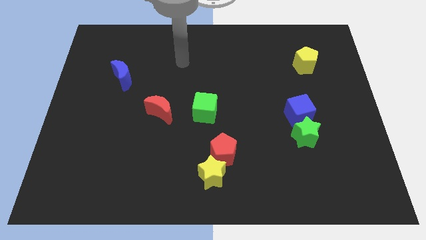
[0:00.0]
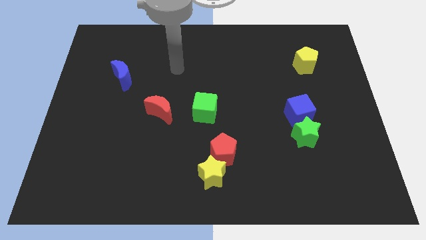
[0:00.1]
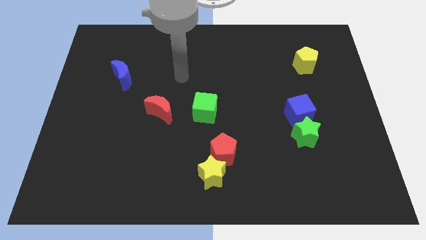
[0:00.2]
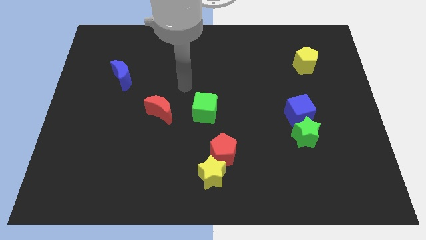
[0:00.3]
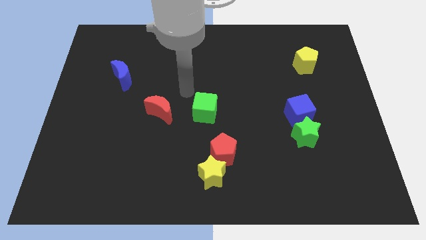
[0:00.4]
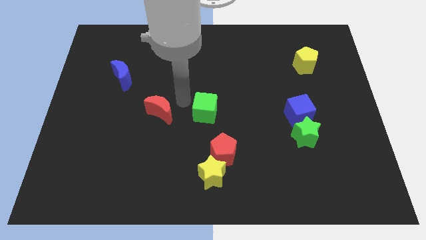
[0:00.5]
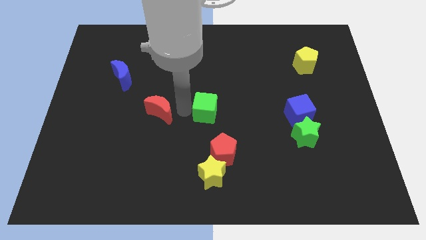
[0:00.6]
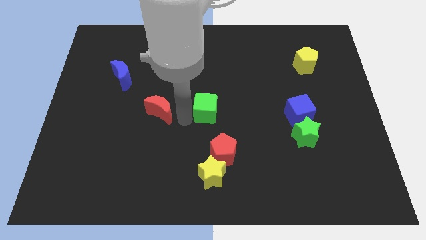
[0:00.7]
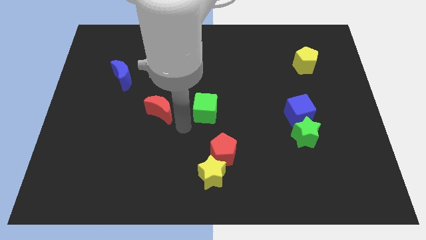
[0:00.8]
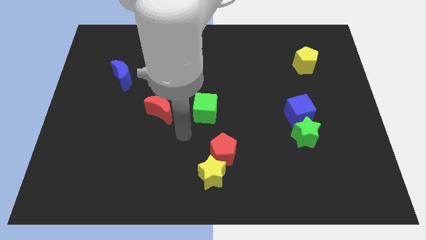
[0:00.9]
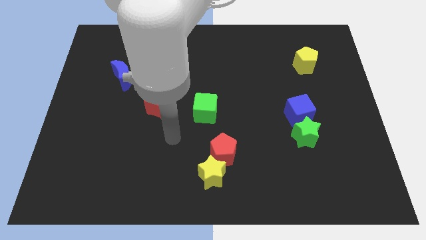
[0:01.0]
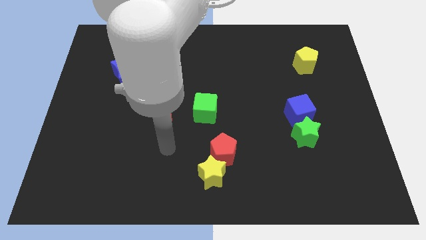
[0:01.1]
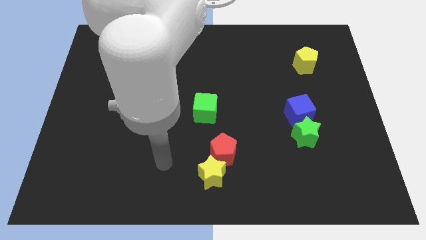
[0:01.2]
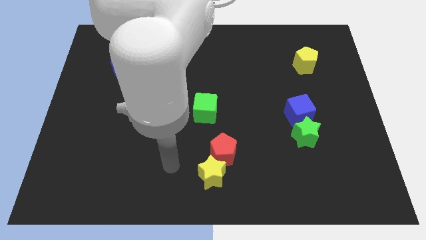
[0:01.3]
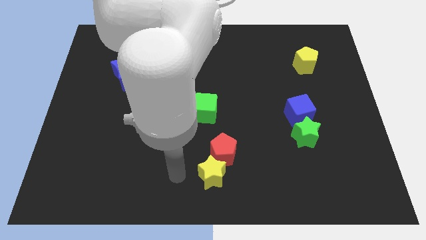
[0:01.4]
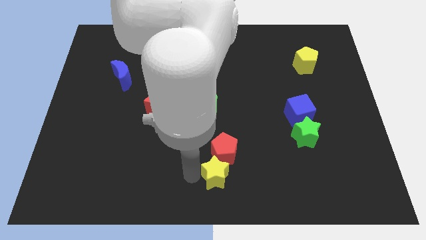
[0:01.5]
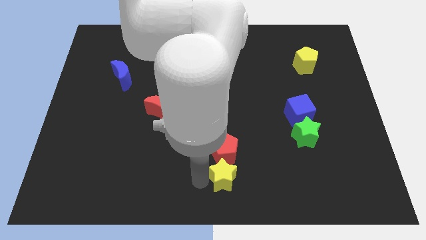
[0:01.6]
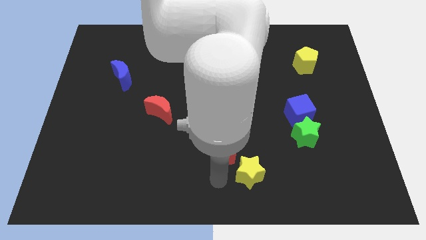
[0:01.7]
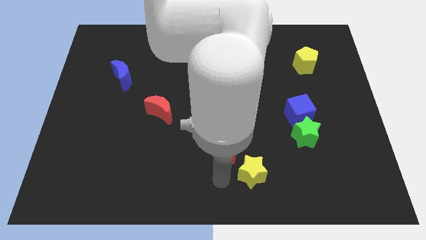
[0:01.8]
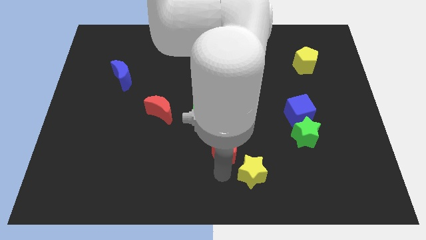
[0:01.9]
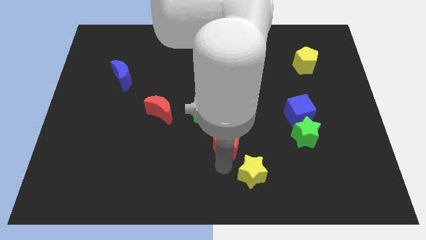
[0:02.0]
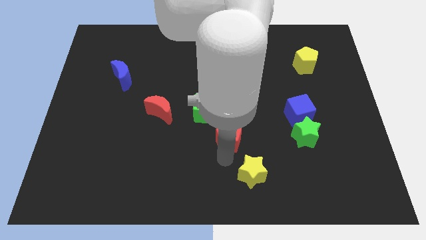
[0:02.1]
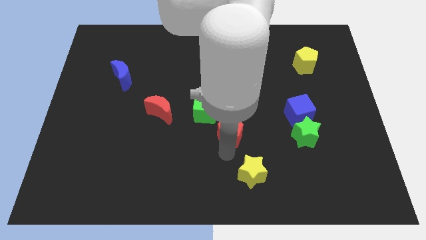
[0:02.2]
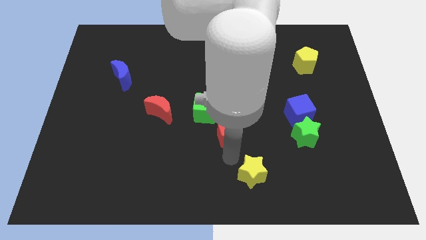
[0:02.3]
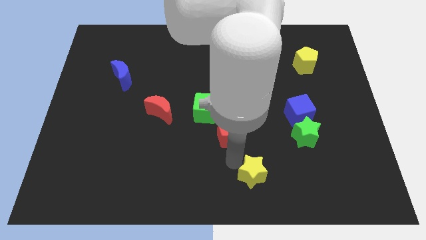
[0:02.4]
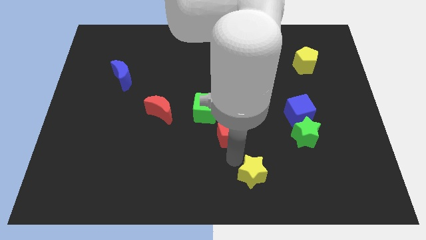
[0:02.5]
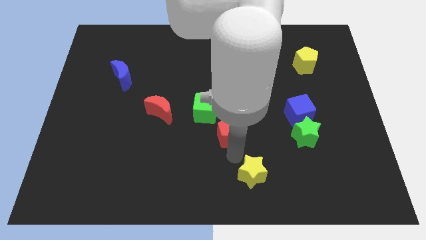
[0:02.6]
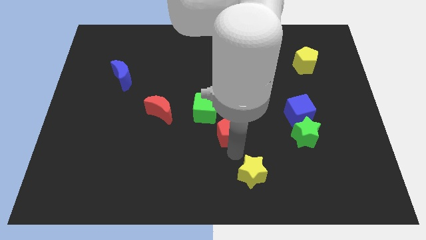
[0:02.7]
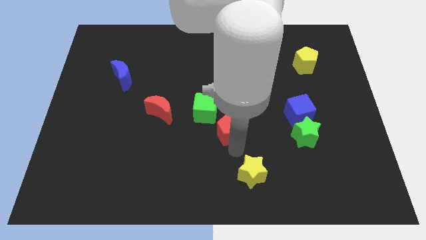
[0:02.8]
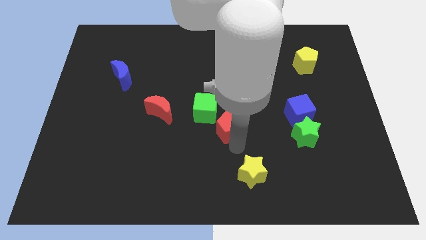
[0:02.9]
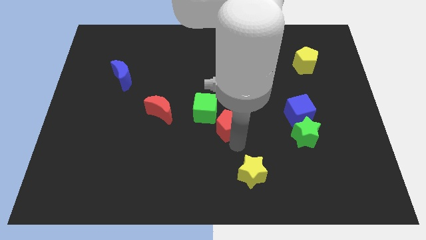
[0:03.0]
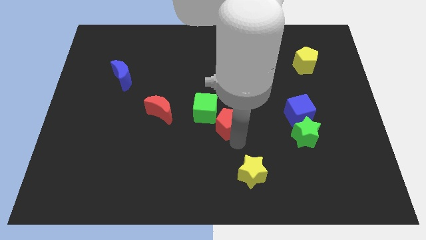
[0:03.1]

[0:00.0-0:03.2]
slightly slide the red pentagon up

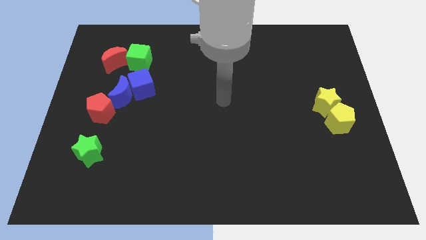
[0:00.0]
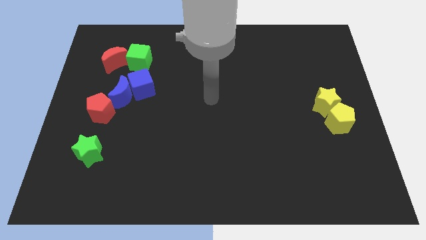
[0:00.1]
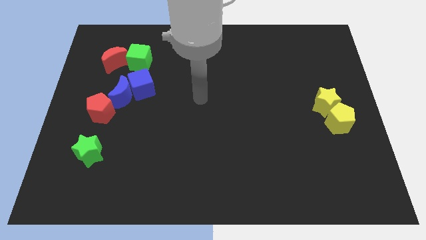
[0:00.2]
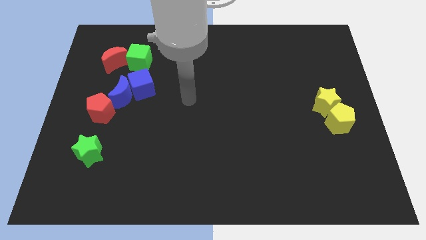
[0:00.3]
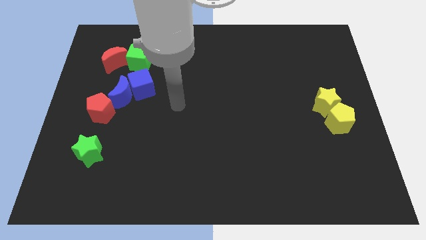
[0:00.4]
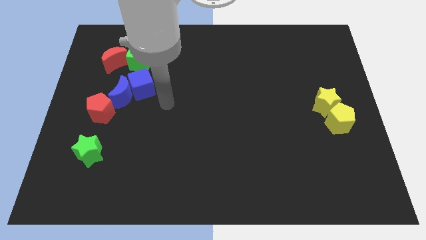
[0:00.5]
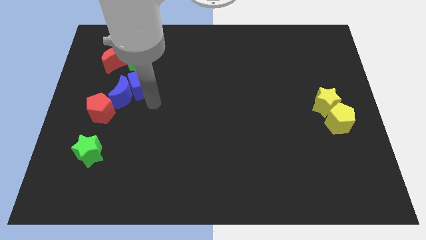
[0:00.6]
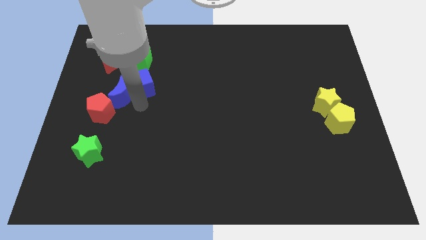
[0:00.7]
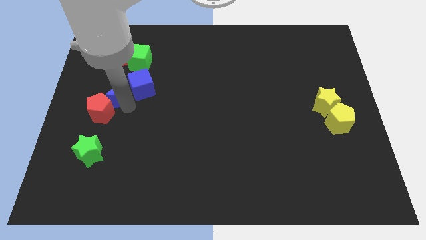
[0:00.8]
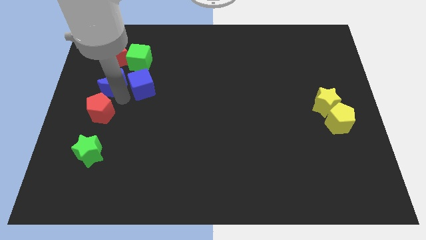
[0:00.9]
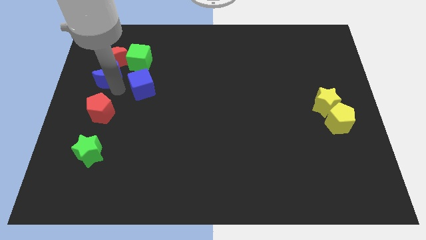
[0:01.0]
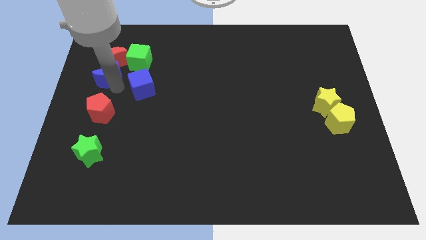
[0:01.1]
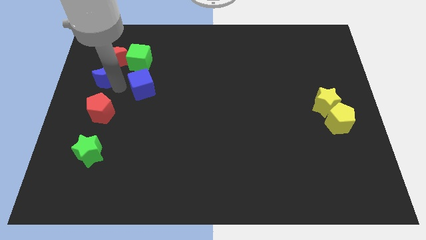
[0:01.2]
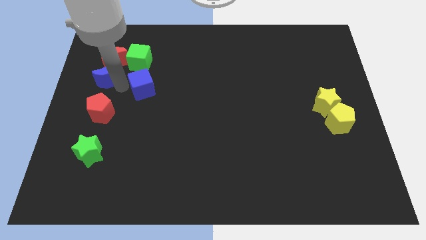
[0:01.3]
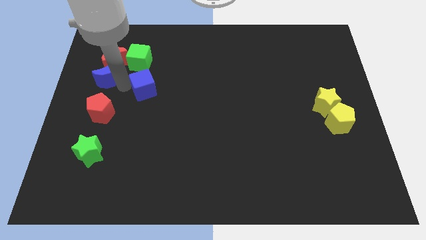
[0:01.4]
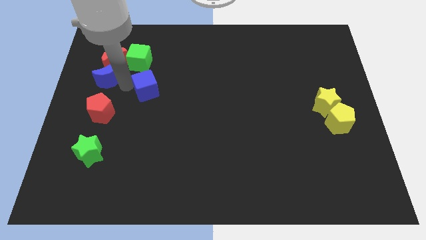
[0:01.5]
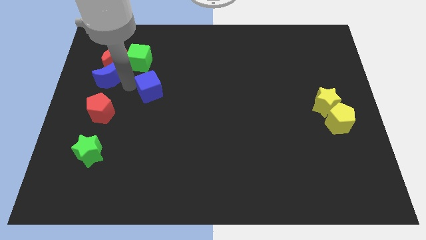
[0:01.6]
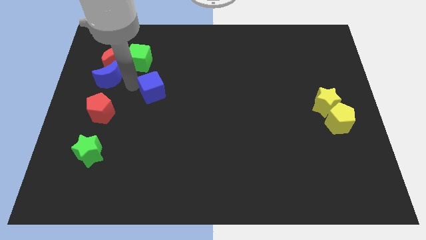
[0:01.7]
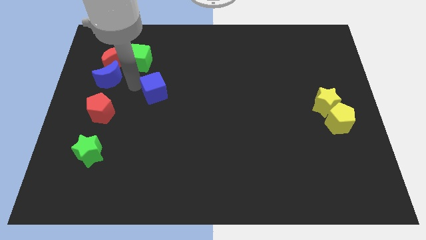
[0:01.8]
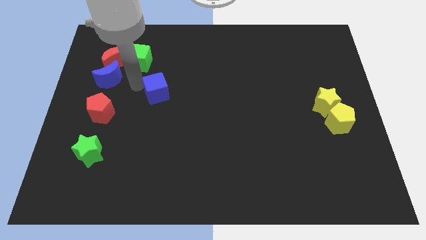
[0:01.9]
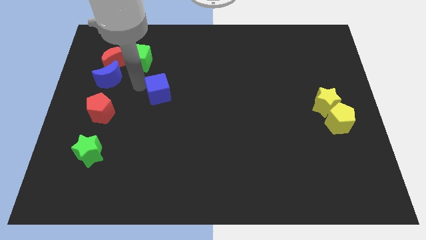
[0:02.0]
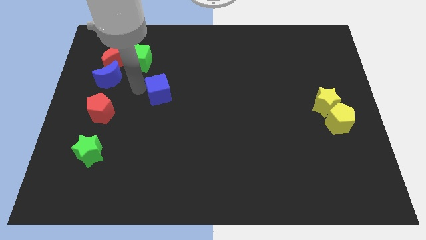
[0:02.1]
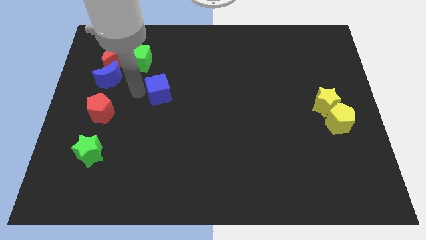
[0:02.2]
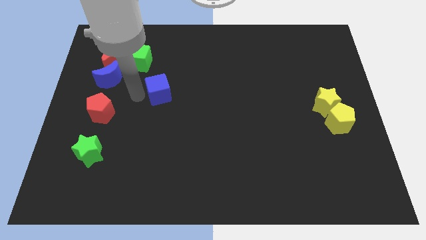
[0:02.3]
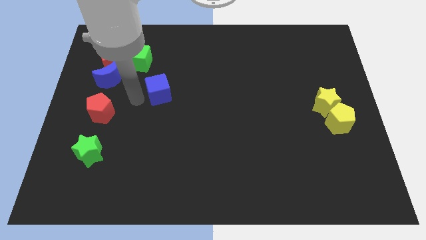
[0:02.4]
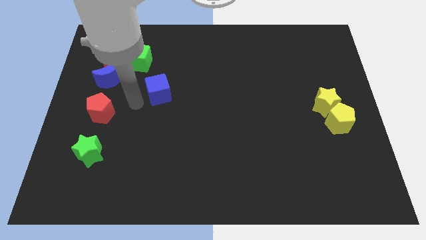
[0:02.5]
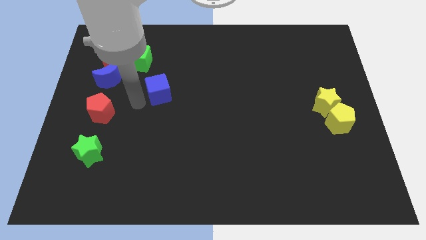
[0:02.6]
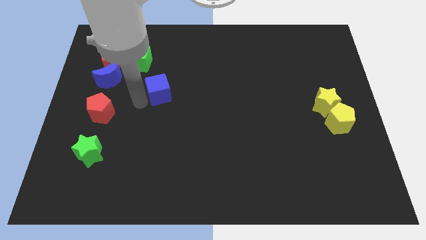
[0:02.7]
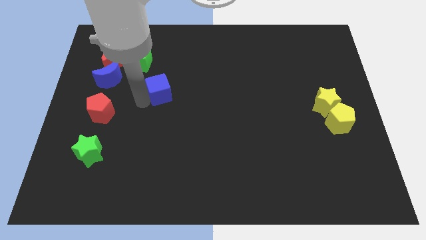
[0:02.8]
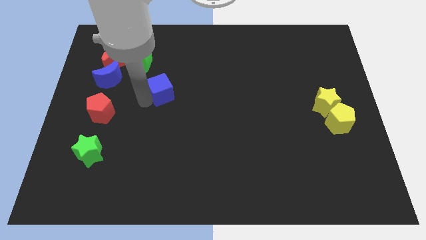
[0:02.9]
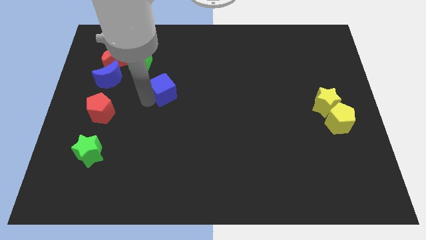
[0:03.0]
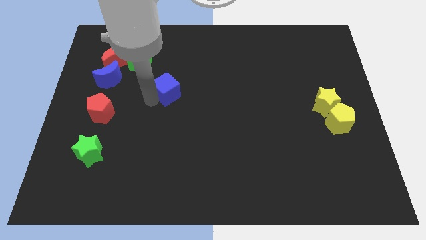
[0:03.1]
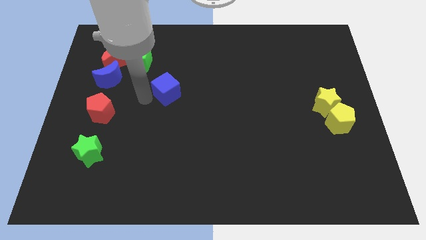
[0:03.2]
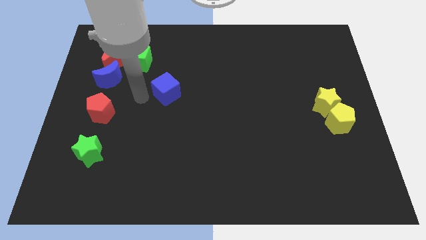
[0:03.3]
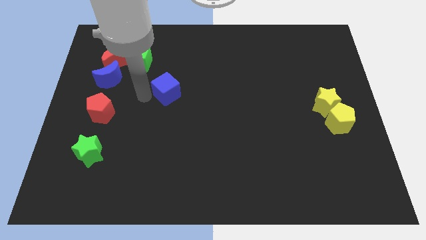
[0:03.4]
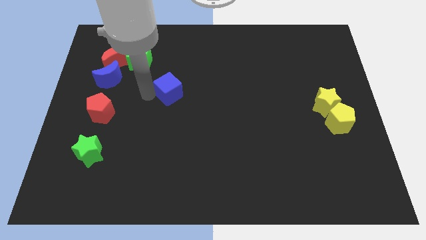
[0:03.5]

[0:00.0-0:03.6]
move the blue cube to the right a little

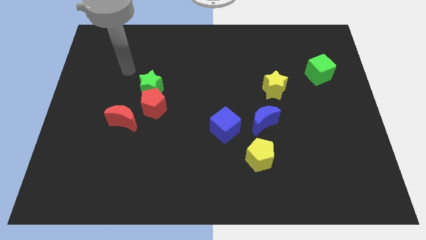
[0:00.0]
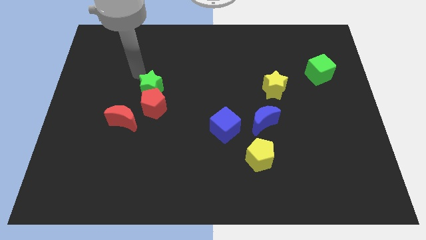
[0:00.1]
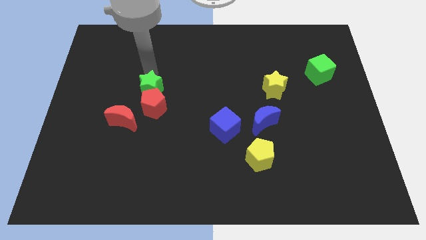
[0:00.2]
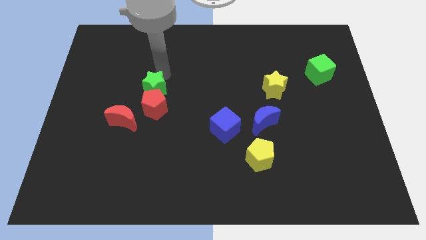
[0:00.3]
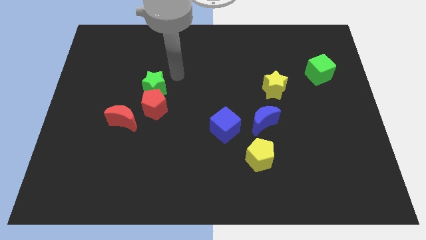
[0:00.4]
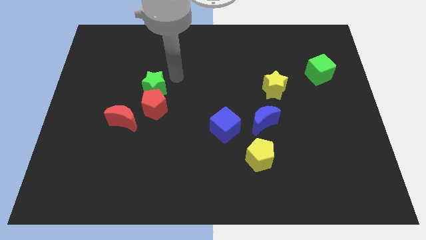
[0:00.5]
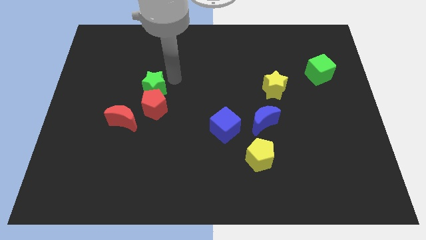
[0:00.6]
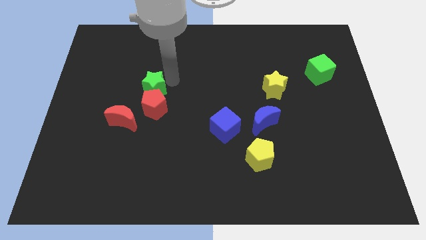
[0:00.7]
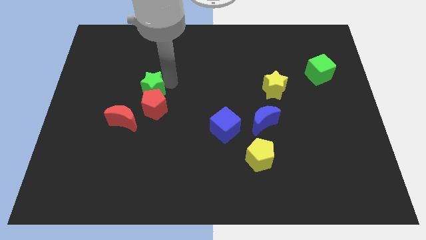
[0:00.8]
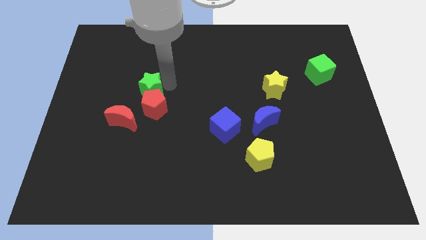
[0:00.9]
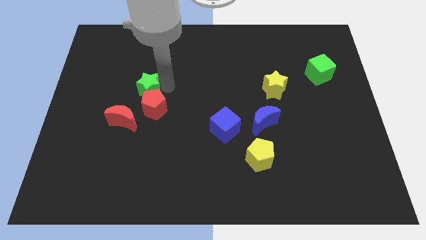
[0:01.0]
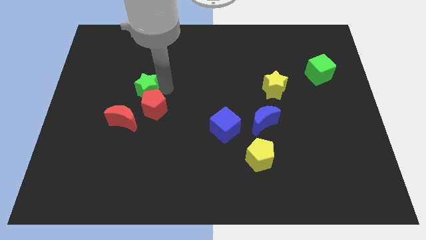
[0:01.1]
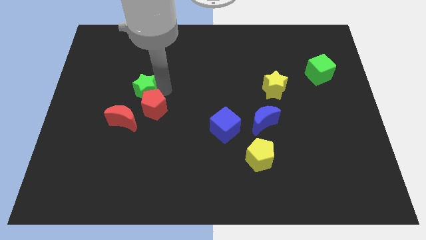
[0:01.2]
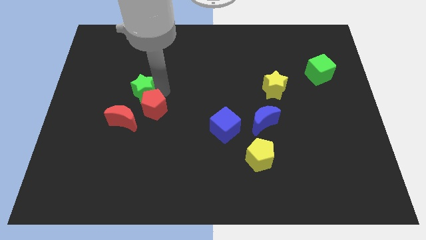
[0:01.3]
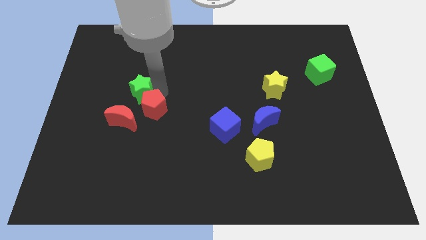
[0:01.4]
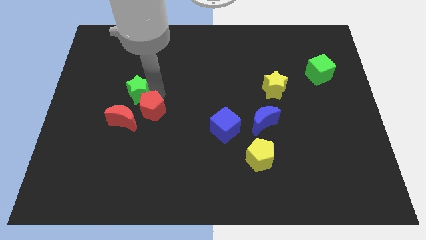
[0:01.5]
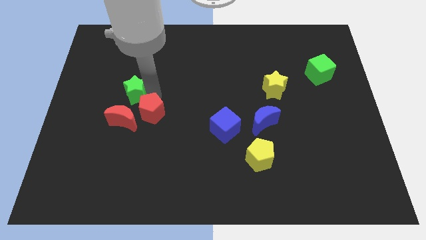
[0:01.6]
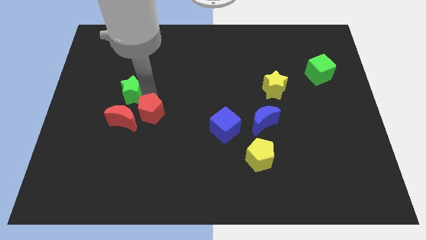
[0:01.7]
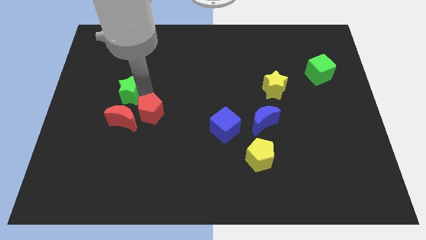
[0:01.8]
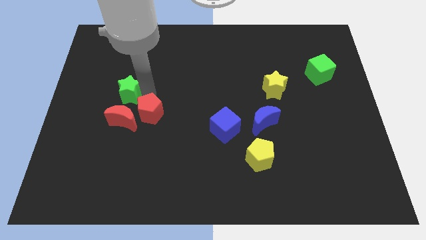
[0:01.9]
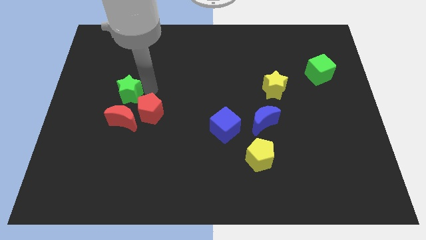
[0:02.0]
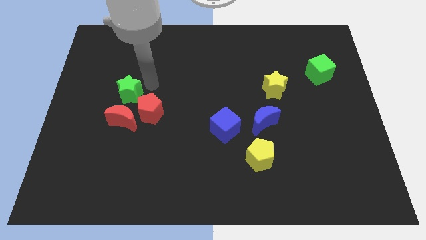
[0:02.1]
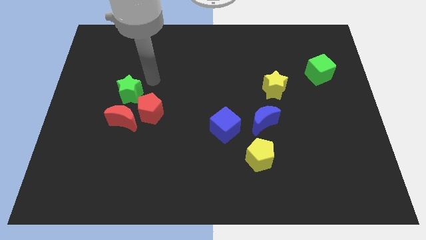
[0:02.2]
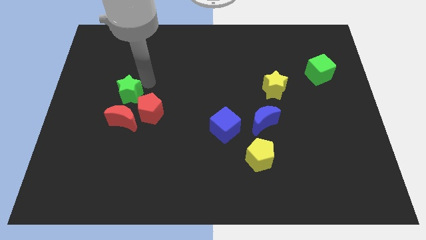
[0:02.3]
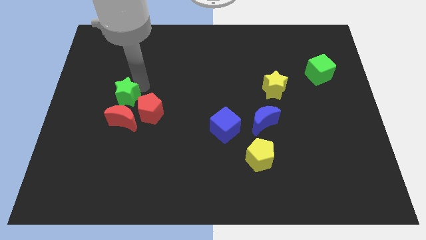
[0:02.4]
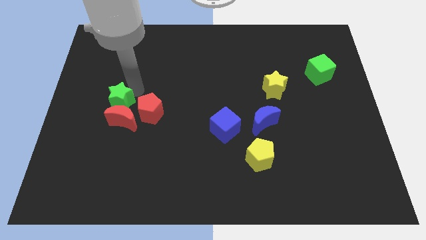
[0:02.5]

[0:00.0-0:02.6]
push the green star slightly diagonally down and to the left
